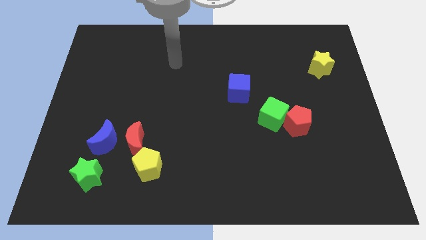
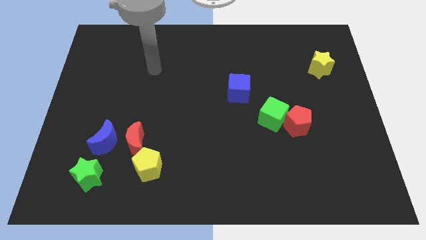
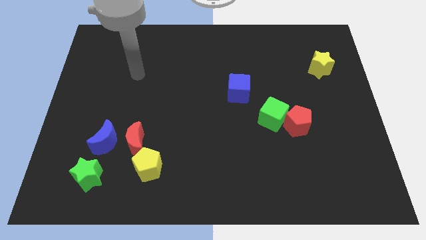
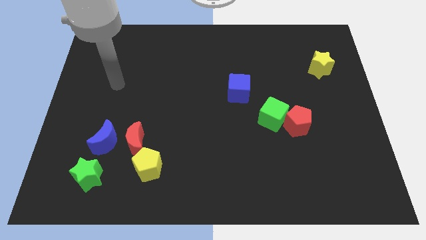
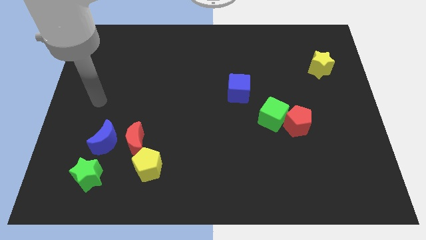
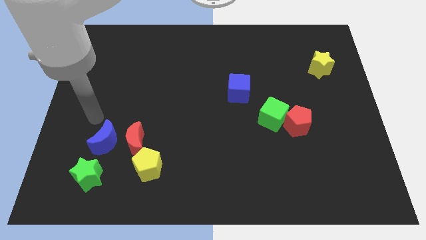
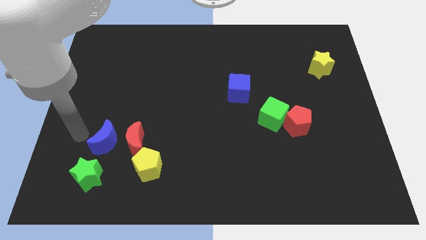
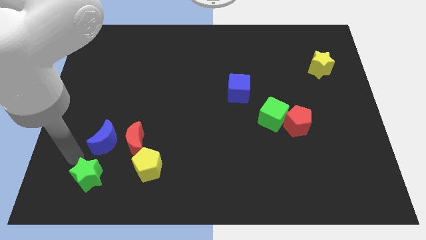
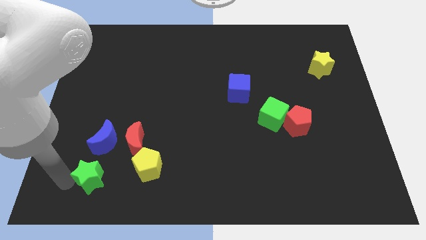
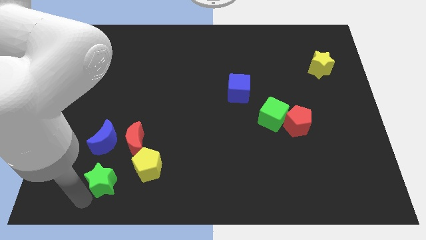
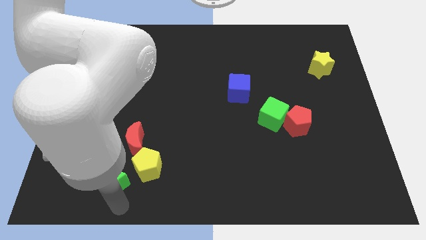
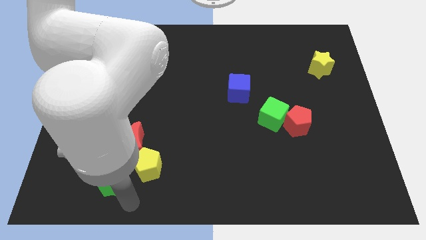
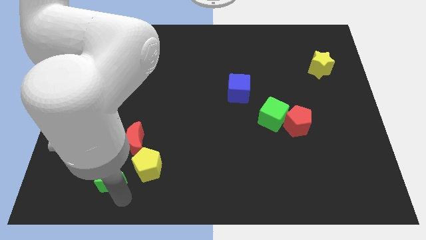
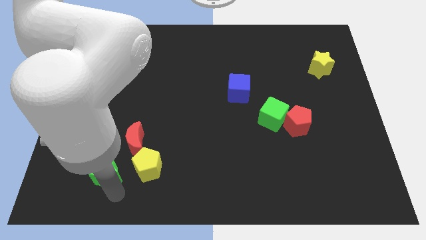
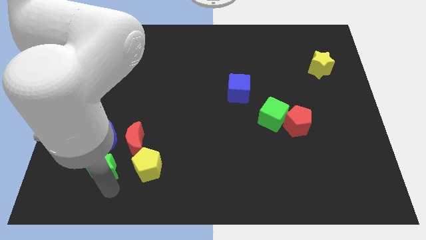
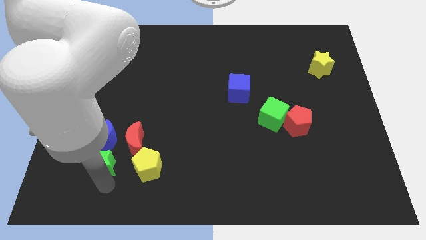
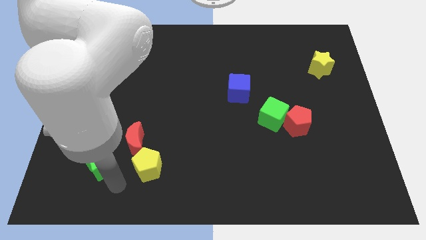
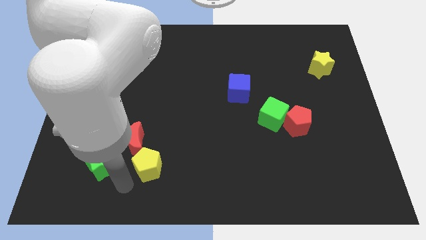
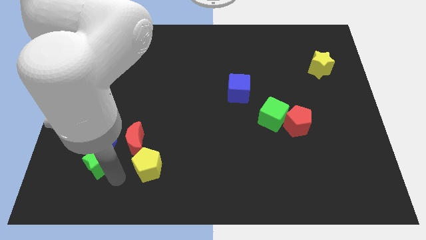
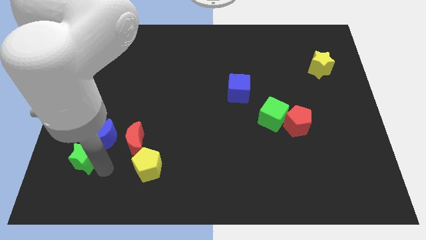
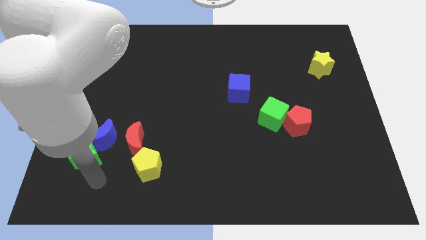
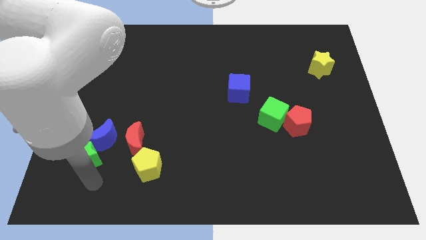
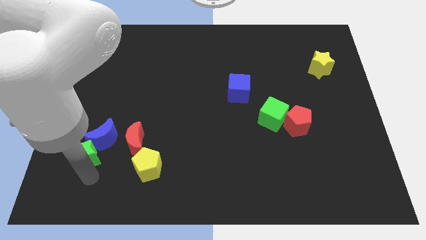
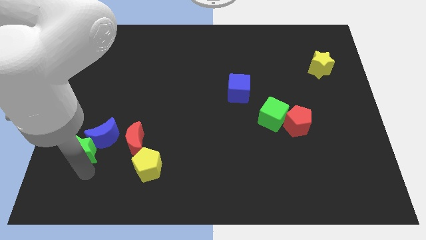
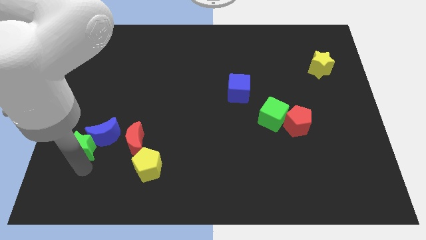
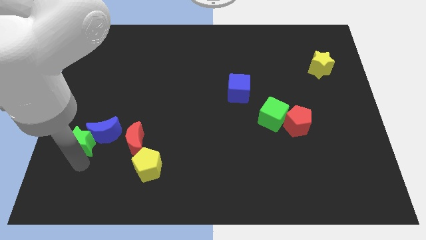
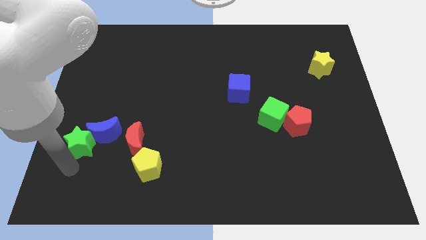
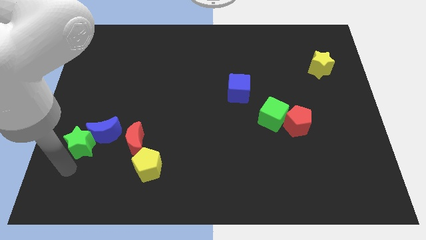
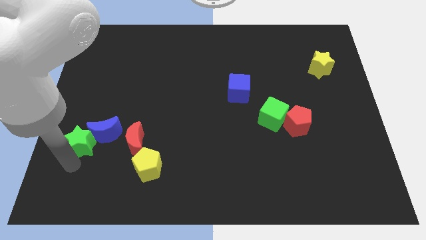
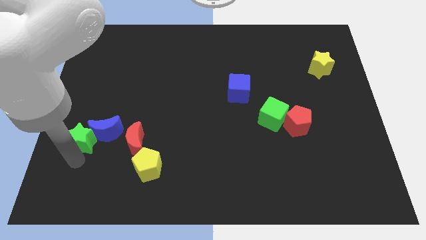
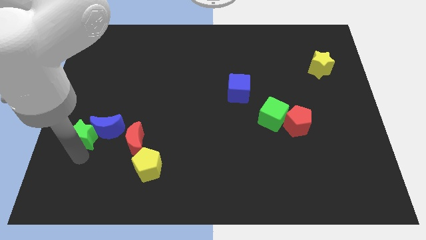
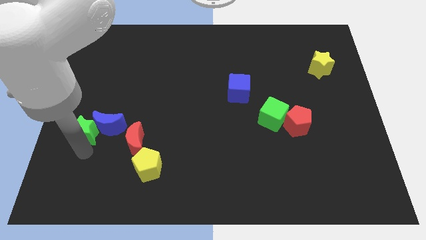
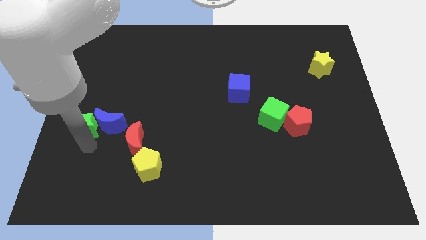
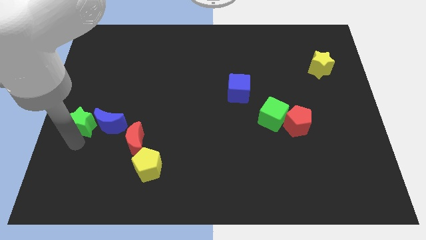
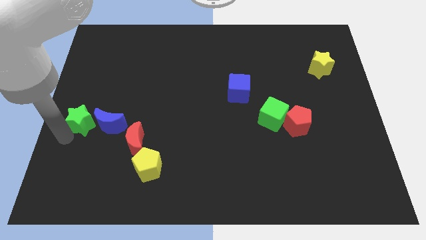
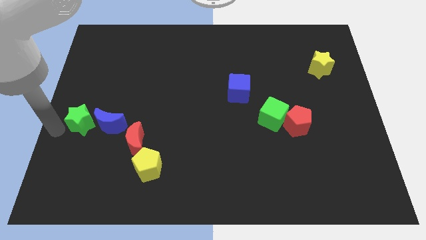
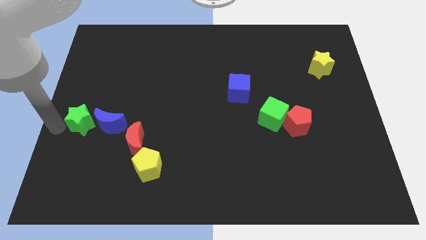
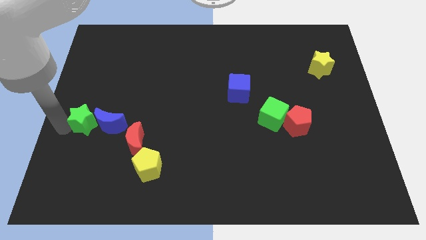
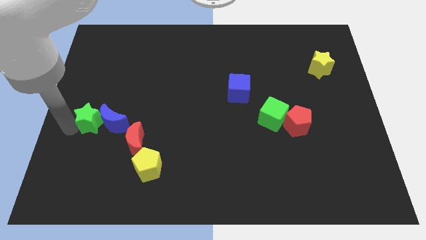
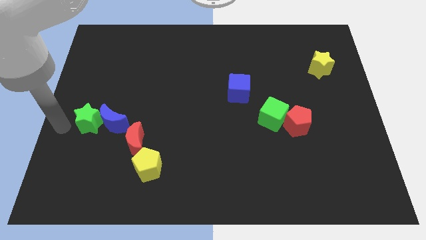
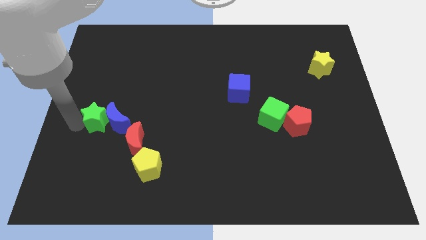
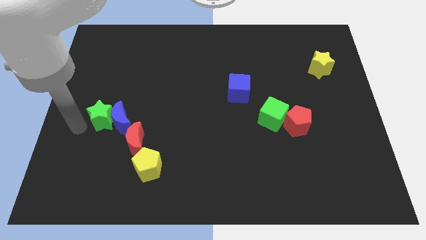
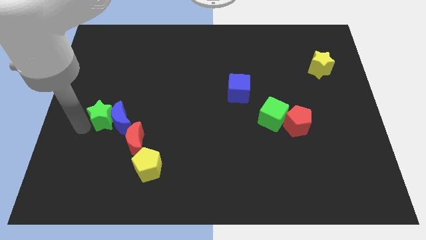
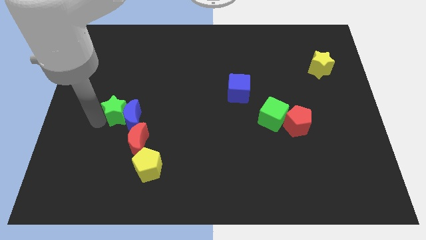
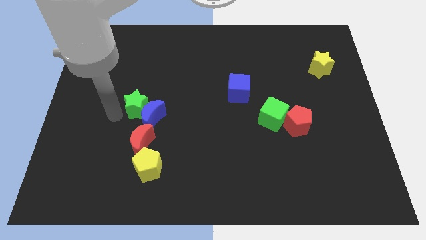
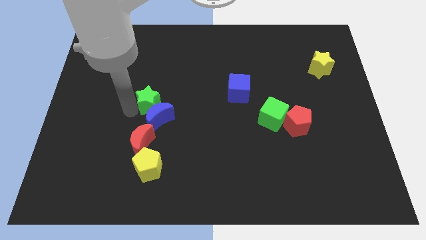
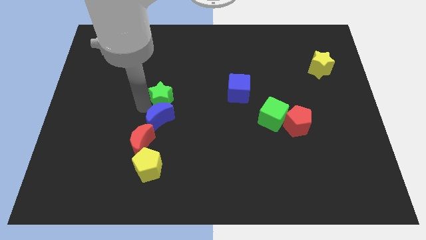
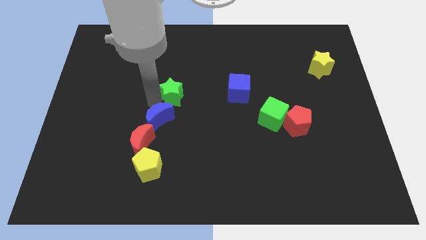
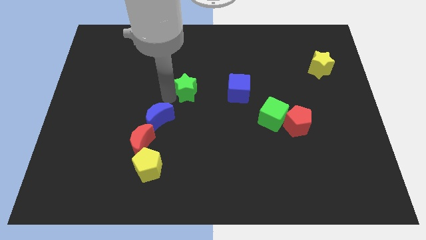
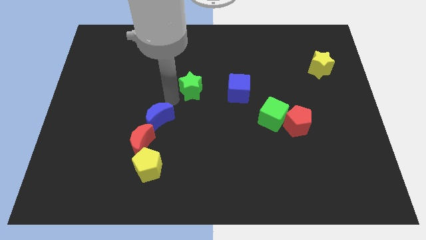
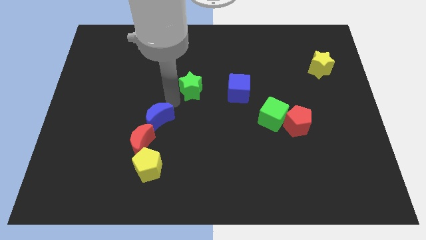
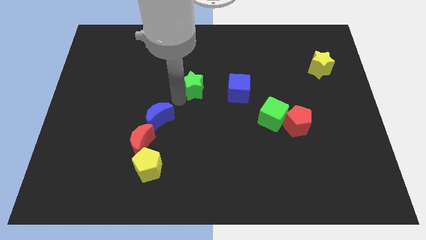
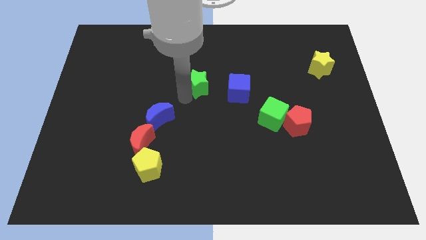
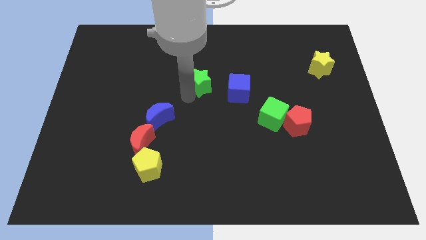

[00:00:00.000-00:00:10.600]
move the green star diagonally up and to the left of the blue cube

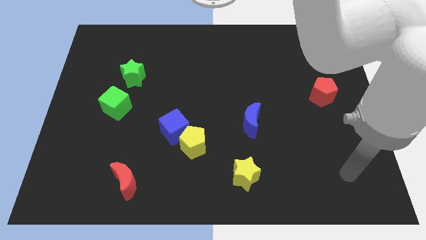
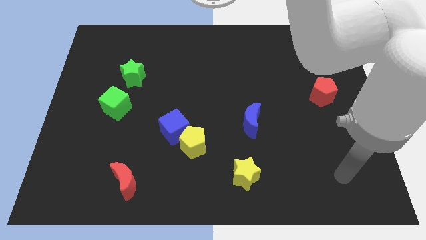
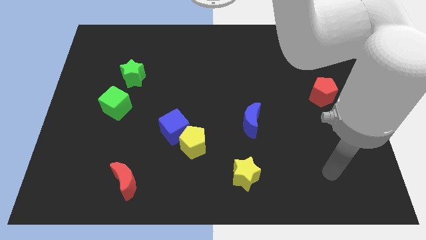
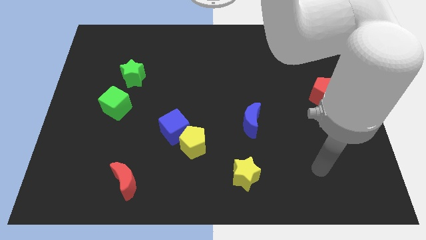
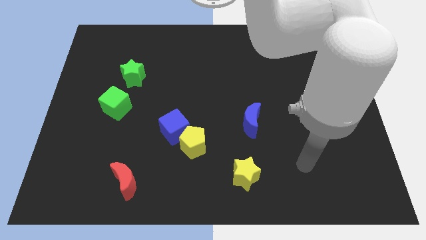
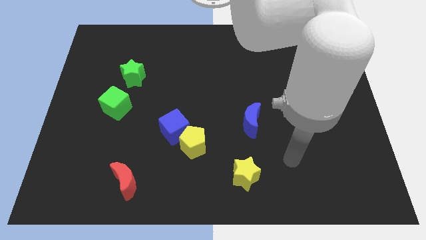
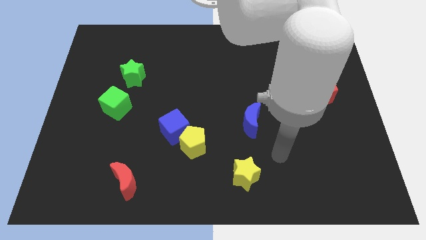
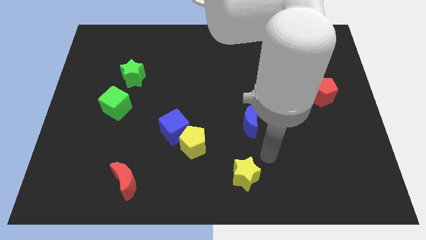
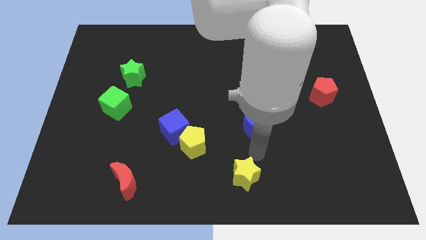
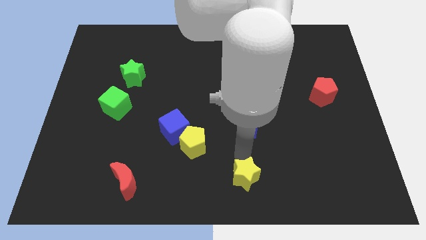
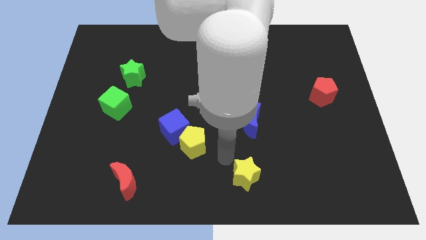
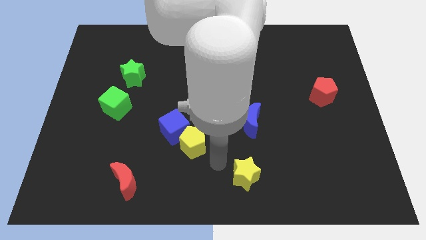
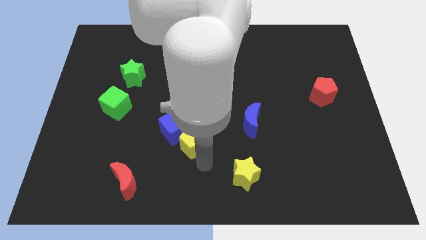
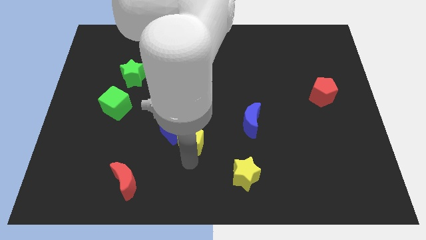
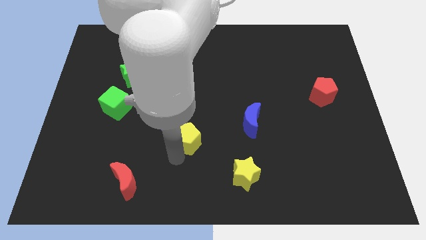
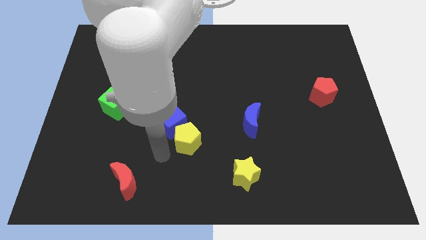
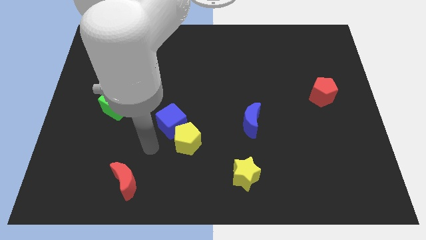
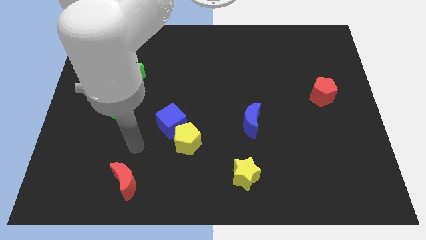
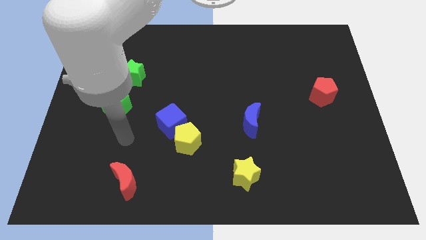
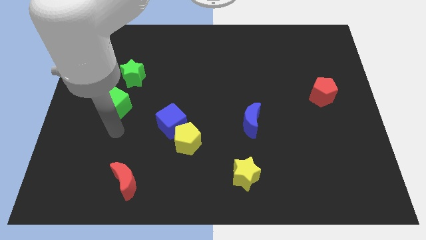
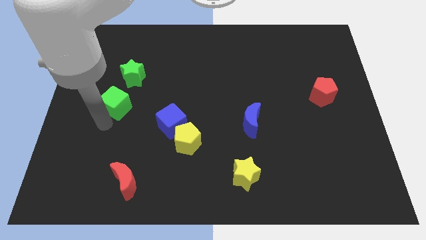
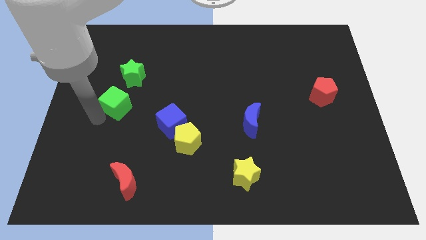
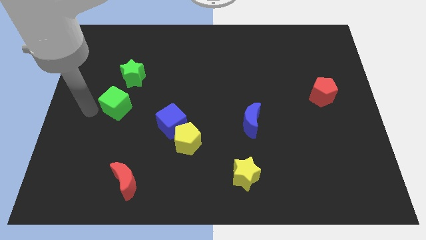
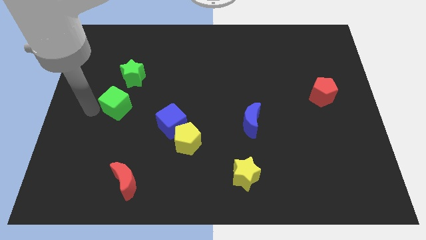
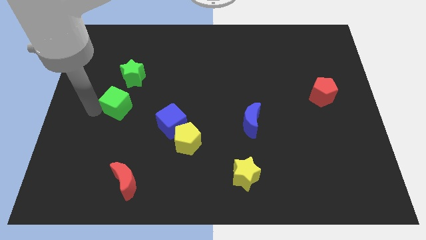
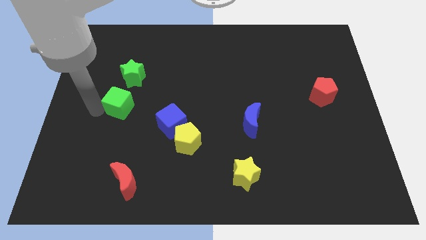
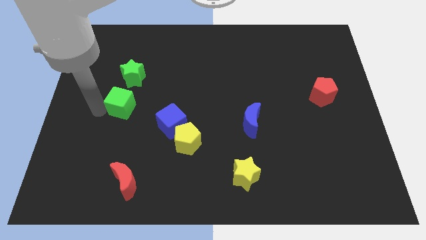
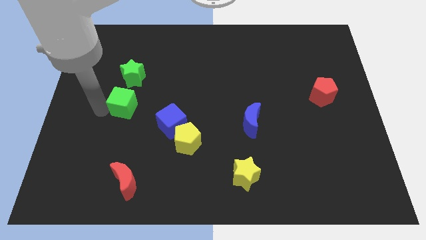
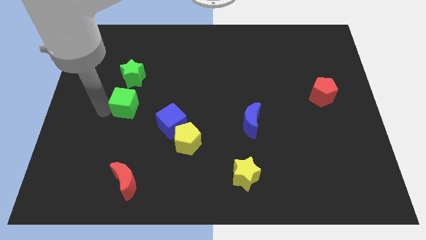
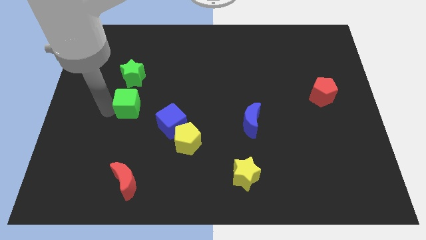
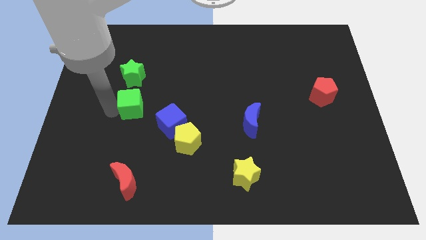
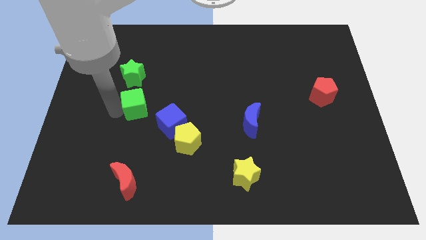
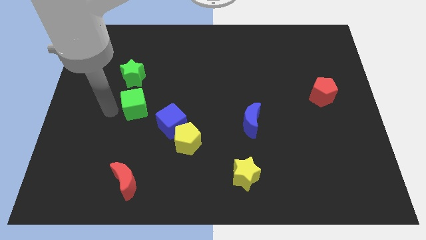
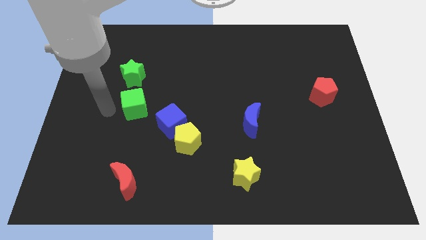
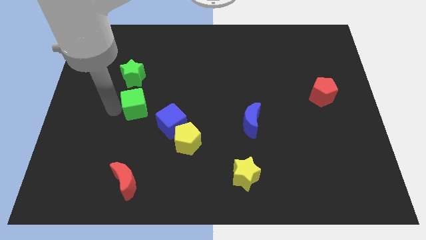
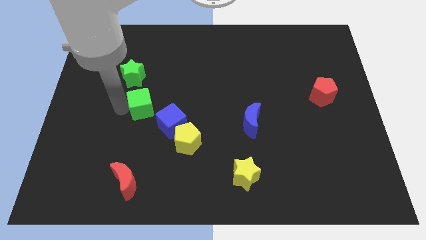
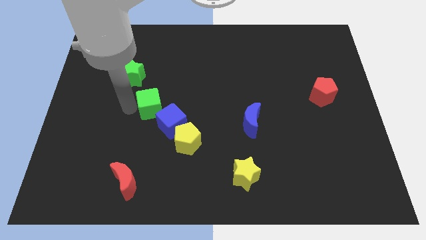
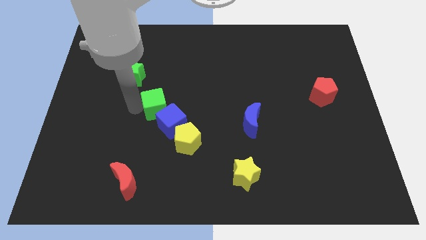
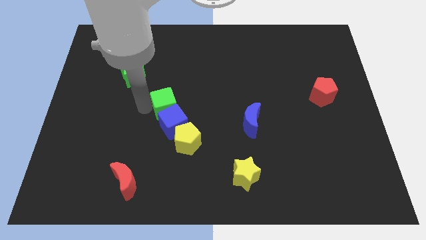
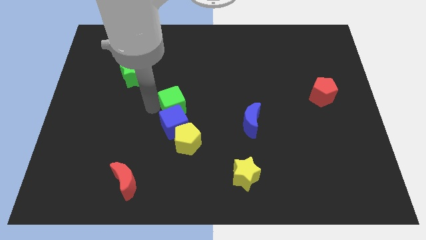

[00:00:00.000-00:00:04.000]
slide the green cube above the yellow pentagon
